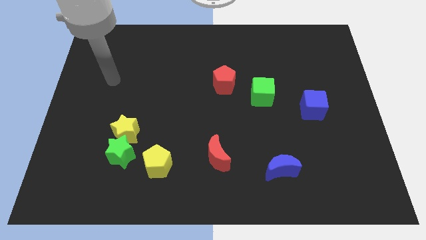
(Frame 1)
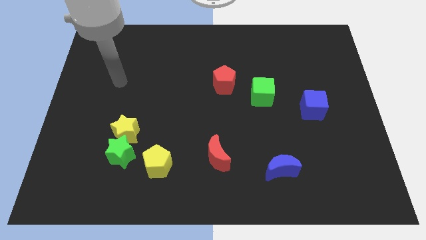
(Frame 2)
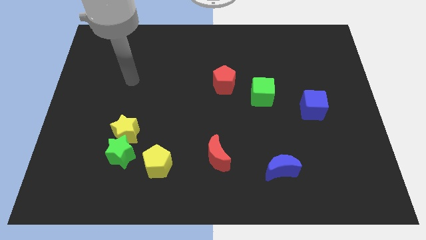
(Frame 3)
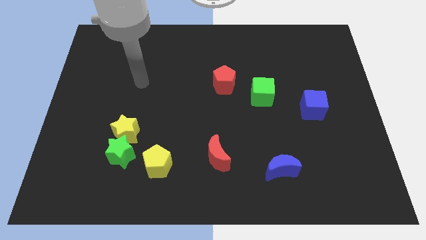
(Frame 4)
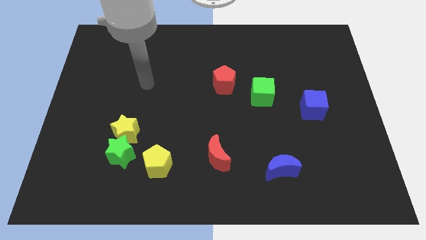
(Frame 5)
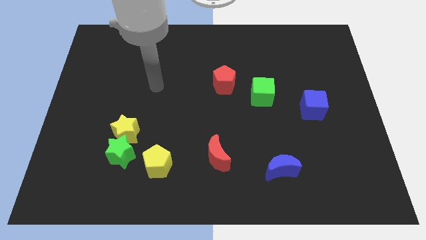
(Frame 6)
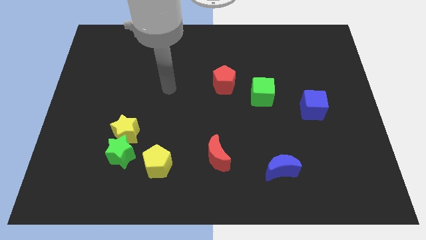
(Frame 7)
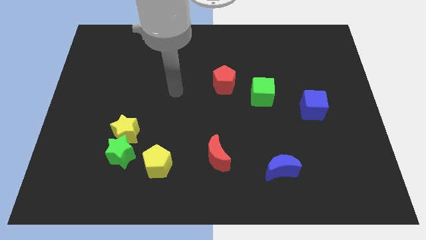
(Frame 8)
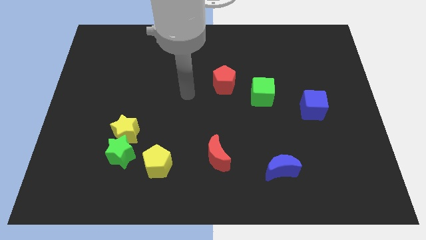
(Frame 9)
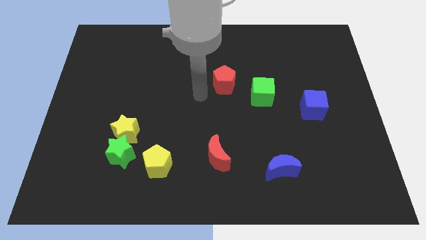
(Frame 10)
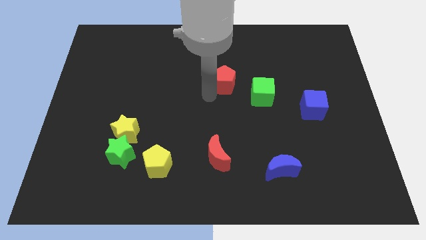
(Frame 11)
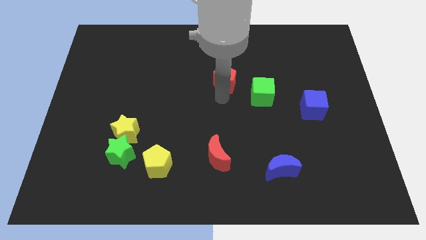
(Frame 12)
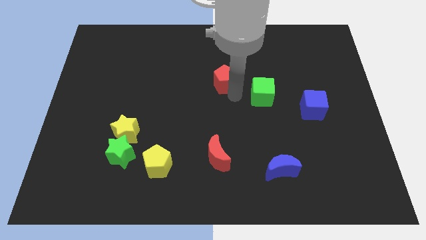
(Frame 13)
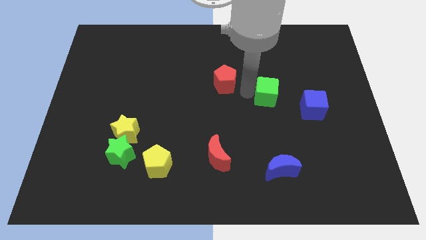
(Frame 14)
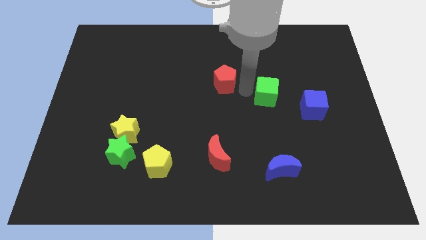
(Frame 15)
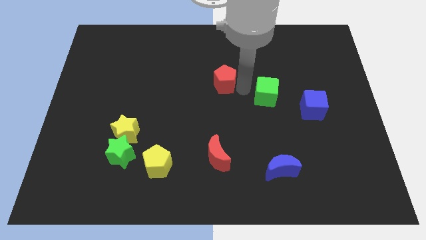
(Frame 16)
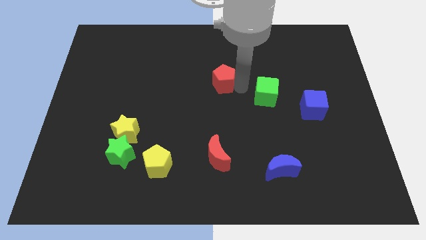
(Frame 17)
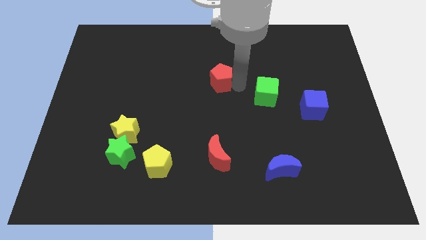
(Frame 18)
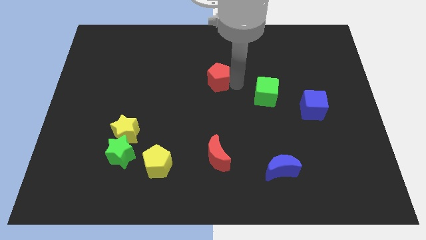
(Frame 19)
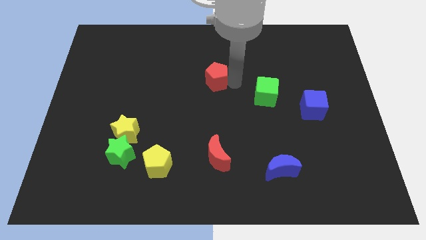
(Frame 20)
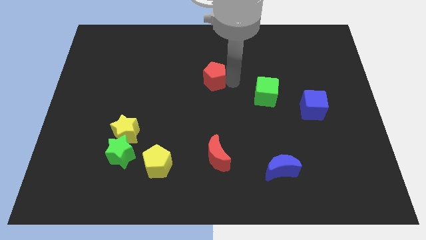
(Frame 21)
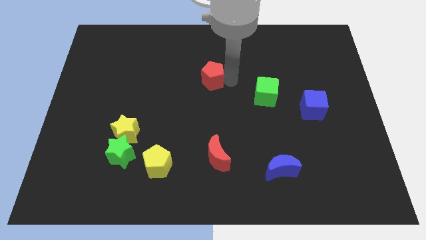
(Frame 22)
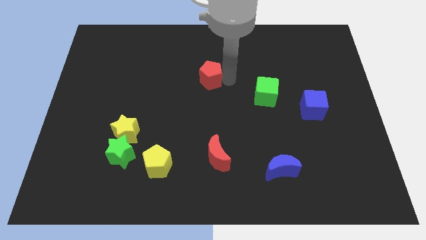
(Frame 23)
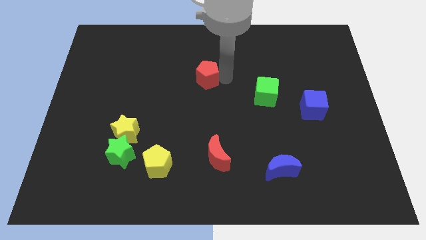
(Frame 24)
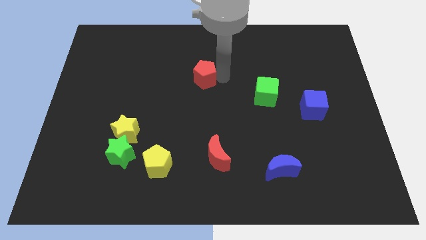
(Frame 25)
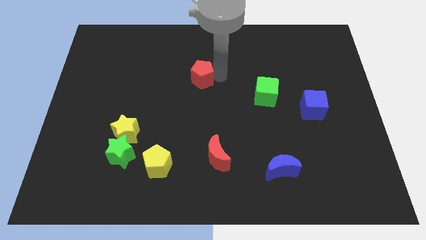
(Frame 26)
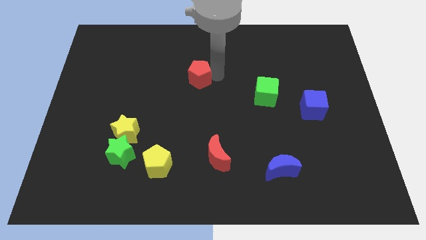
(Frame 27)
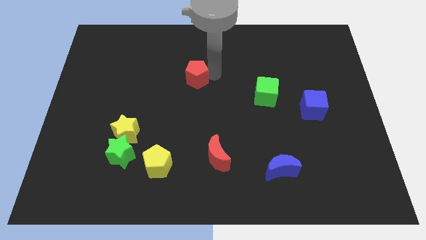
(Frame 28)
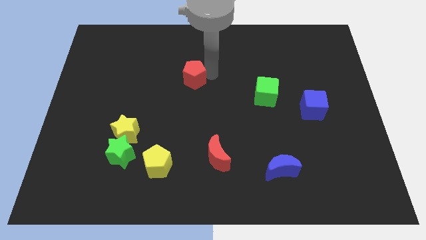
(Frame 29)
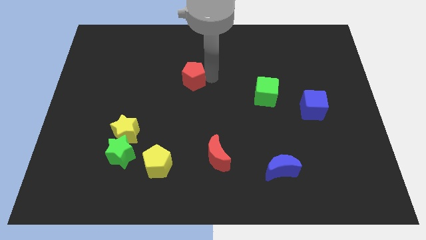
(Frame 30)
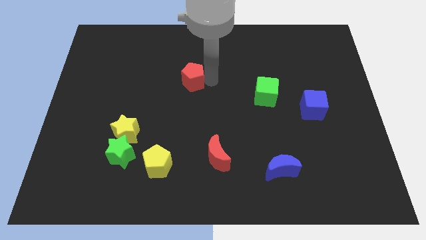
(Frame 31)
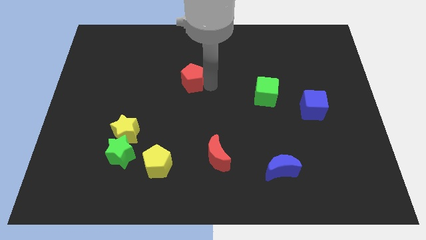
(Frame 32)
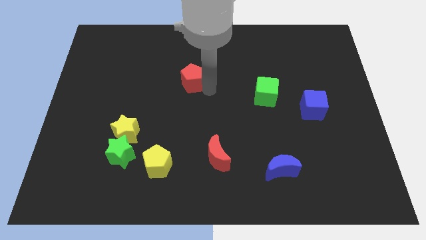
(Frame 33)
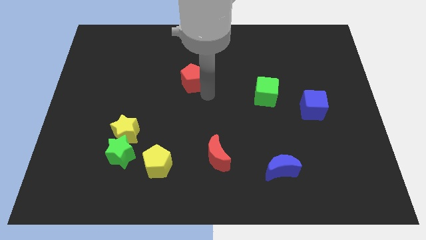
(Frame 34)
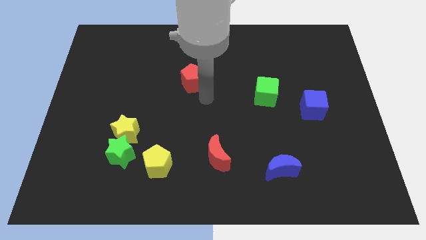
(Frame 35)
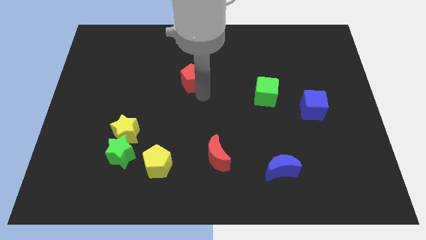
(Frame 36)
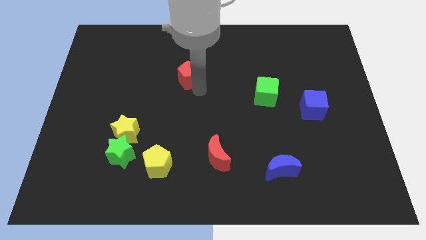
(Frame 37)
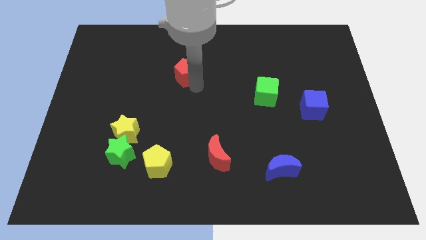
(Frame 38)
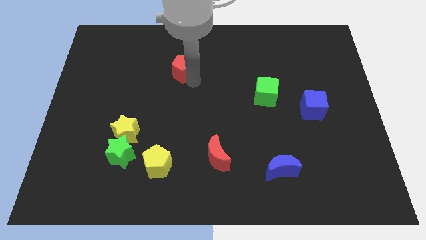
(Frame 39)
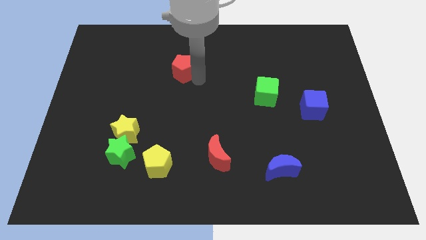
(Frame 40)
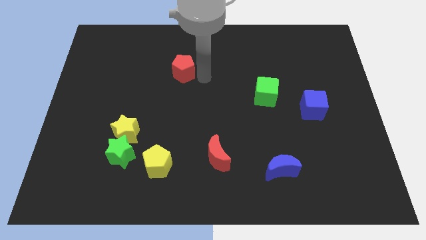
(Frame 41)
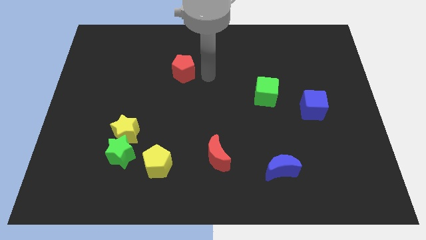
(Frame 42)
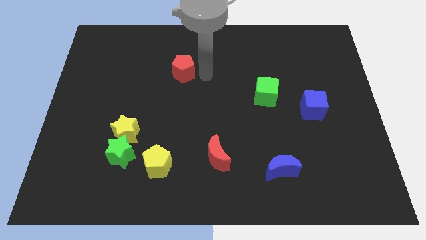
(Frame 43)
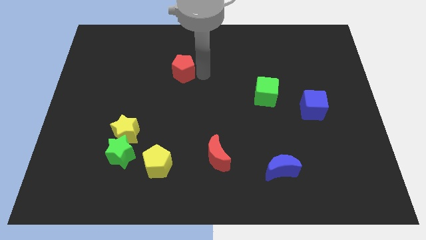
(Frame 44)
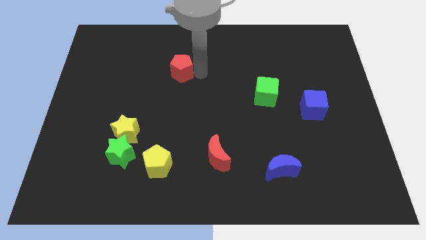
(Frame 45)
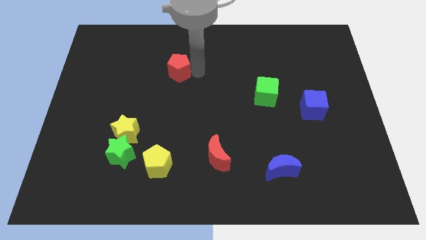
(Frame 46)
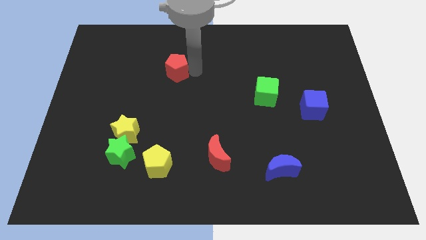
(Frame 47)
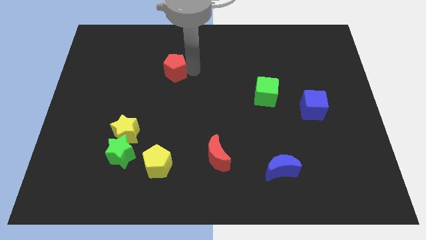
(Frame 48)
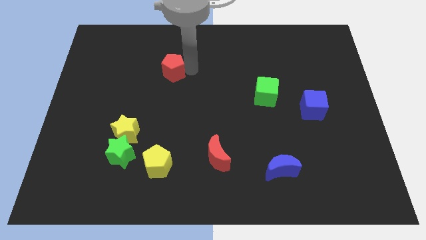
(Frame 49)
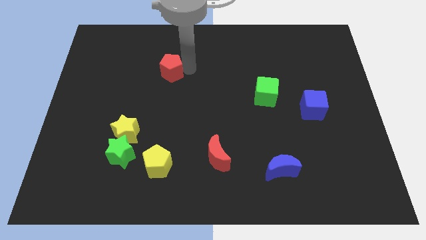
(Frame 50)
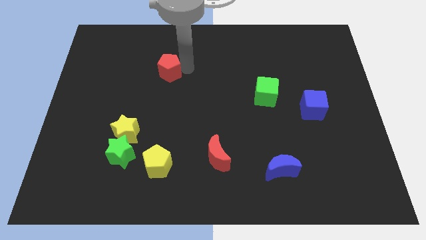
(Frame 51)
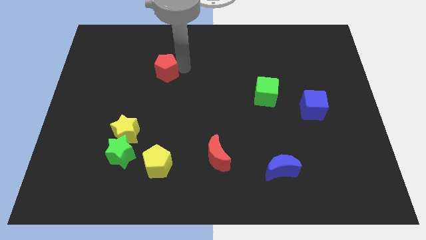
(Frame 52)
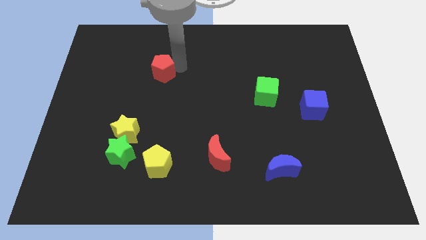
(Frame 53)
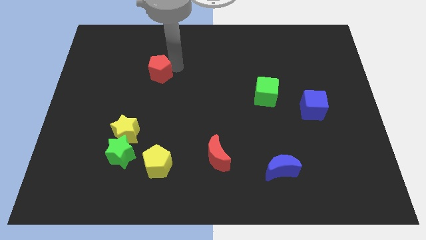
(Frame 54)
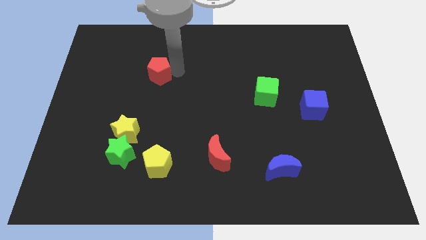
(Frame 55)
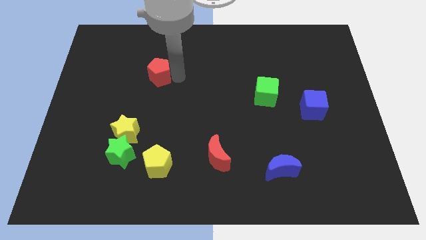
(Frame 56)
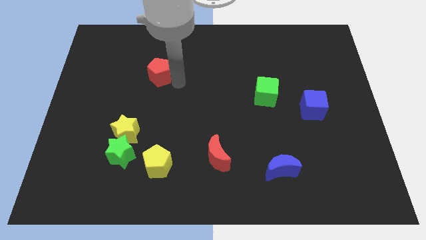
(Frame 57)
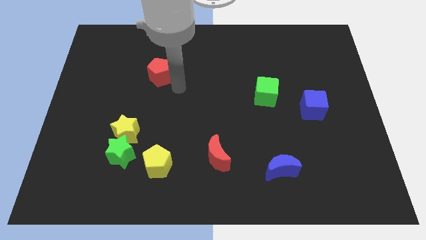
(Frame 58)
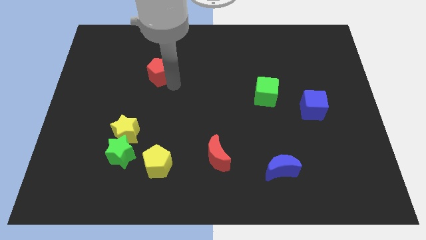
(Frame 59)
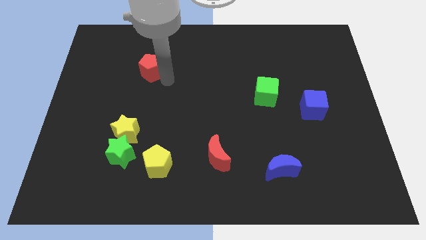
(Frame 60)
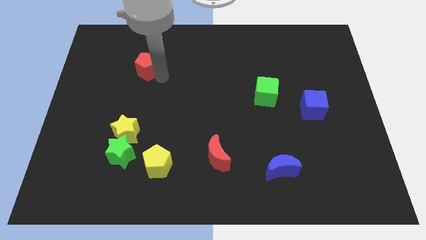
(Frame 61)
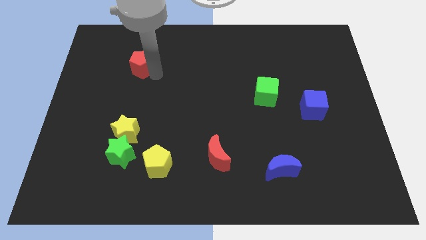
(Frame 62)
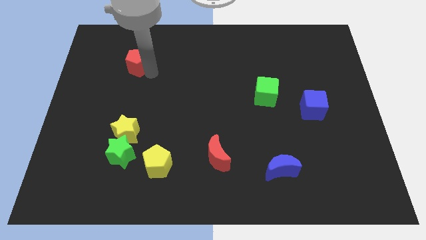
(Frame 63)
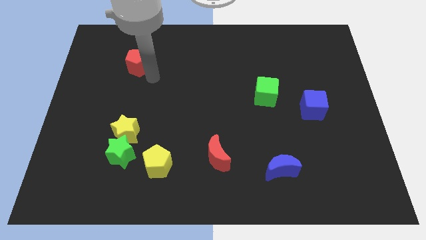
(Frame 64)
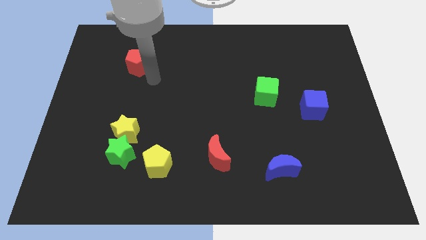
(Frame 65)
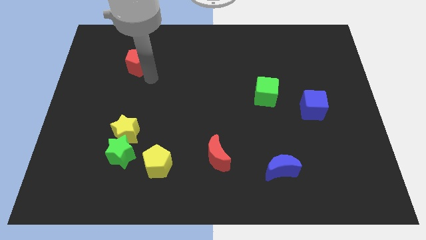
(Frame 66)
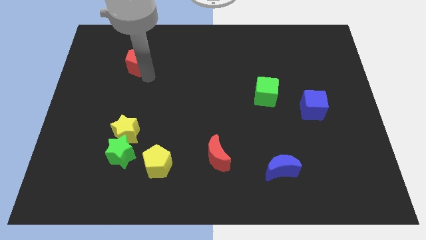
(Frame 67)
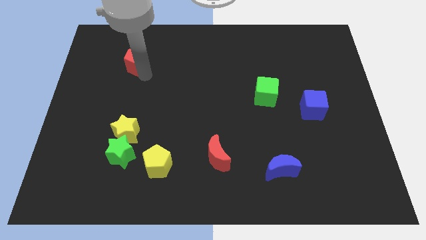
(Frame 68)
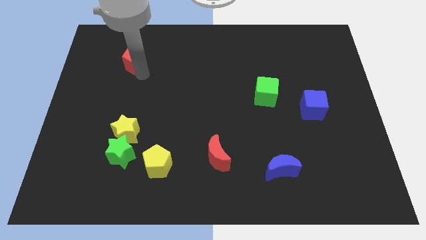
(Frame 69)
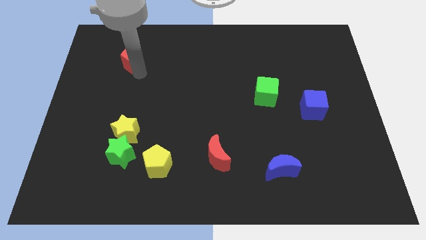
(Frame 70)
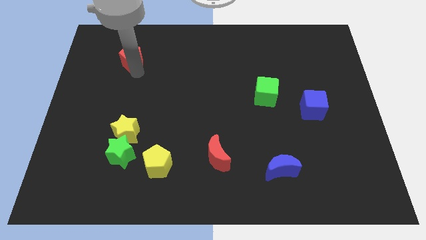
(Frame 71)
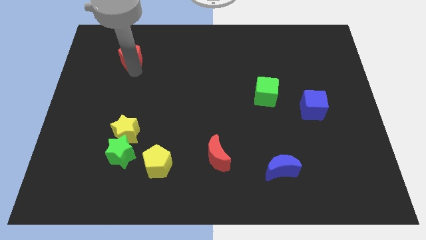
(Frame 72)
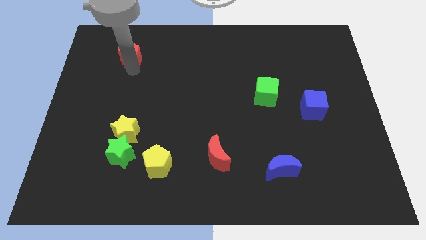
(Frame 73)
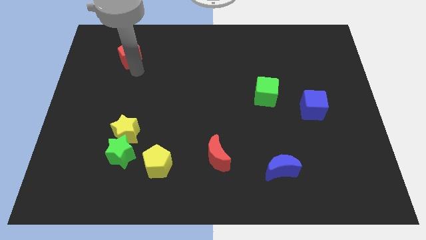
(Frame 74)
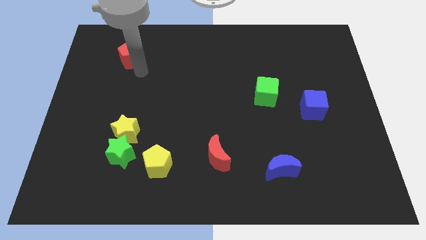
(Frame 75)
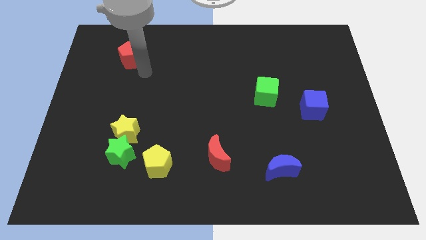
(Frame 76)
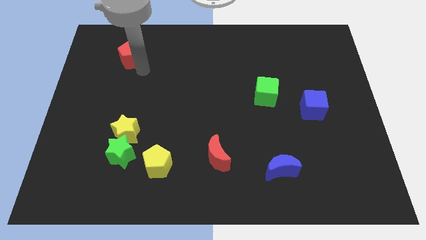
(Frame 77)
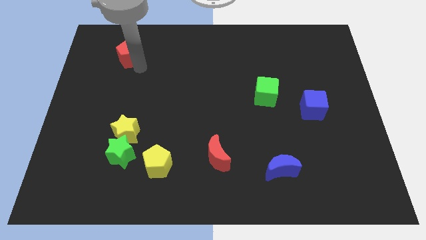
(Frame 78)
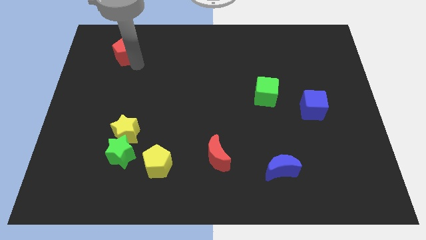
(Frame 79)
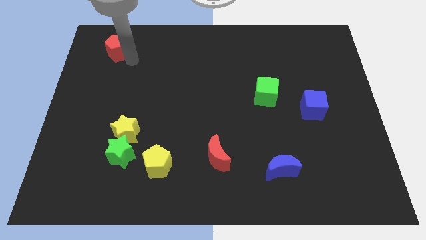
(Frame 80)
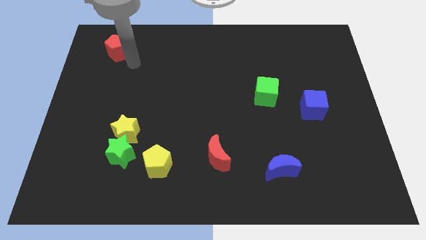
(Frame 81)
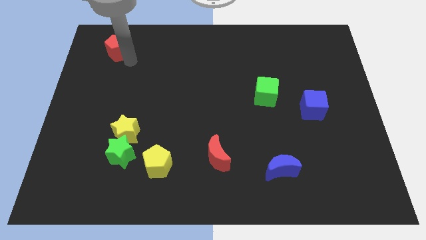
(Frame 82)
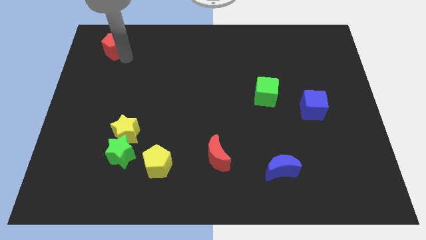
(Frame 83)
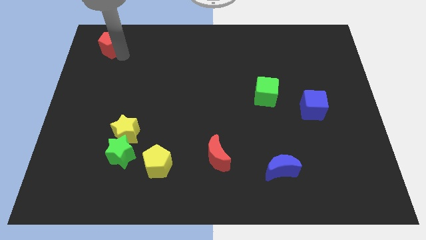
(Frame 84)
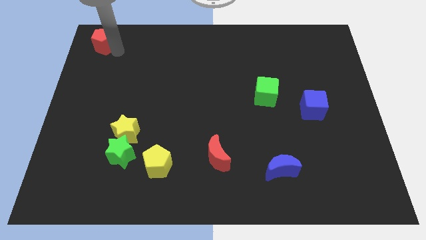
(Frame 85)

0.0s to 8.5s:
slide the red pentagon to the upper left corner
